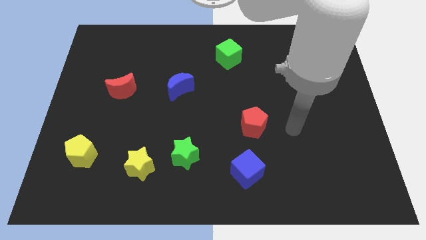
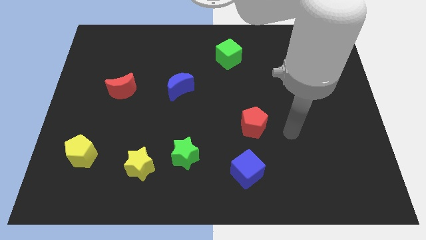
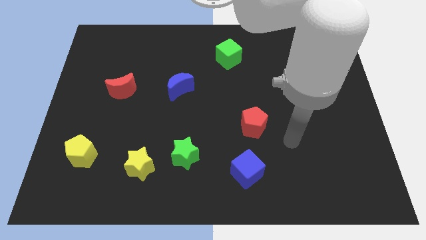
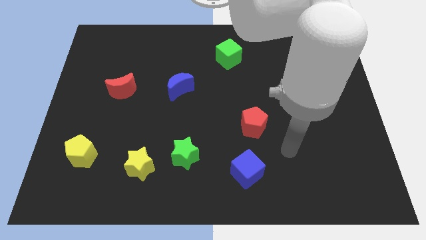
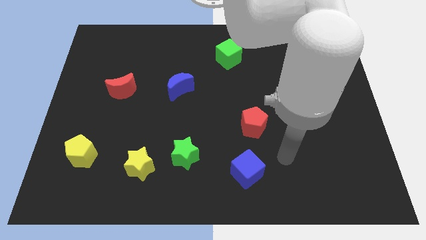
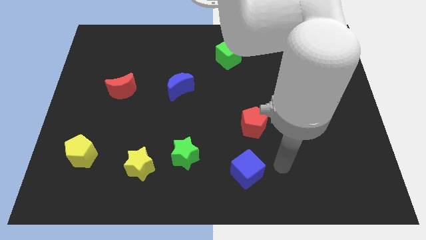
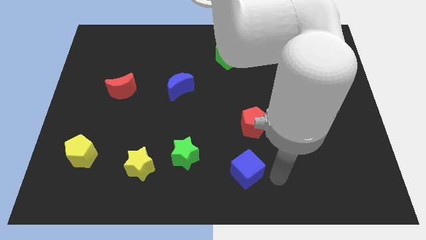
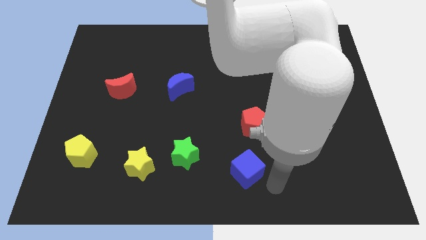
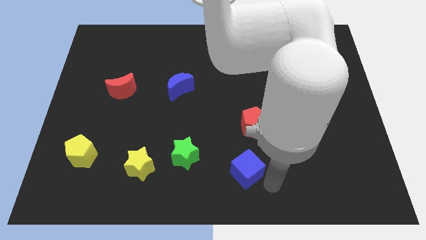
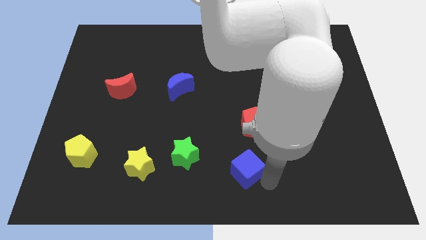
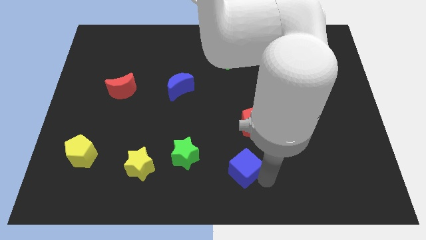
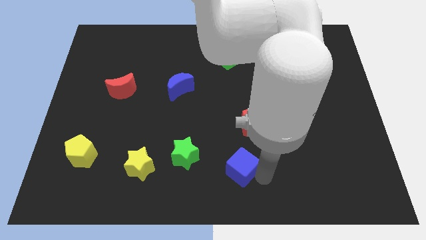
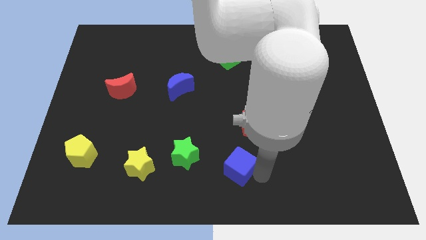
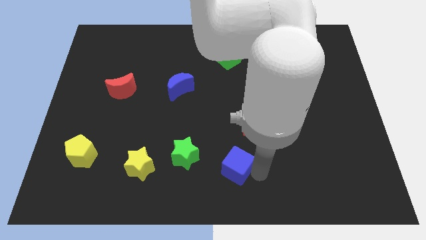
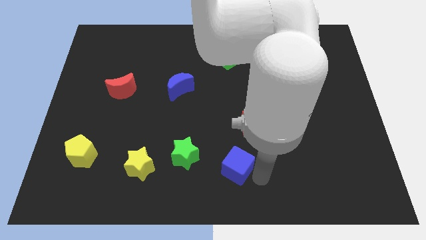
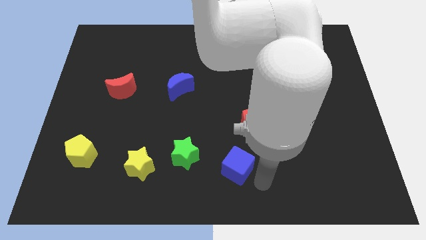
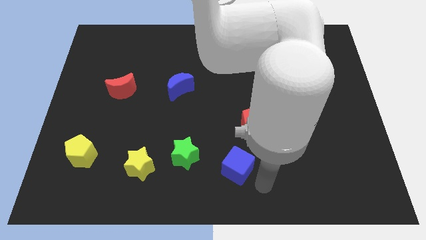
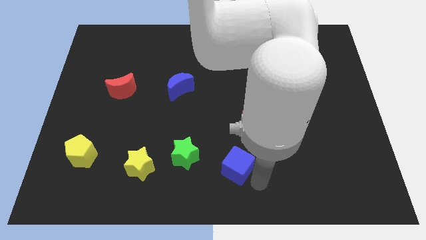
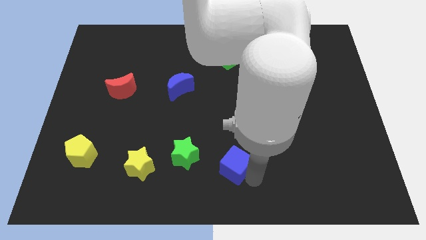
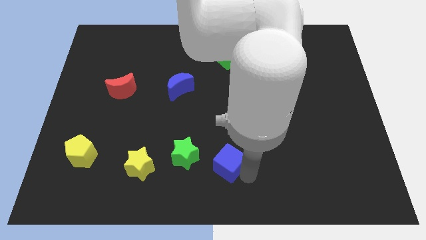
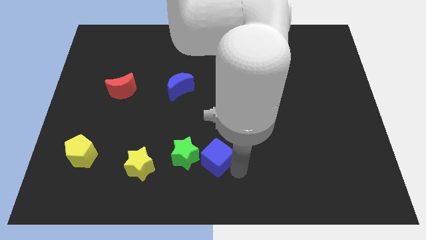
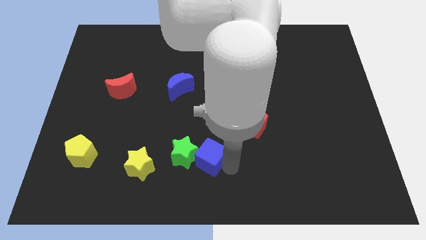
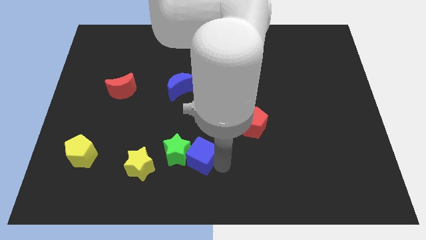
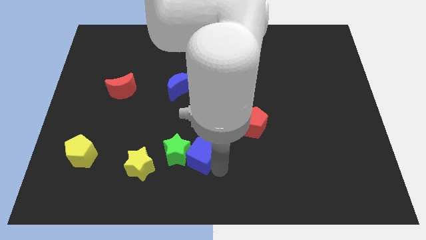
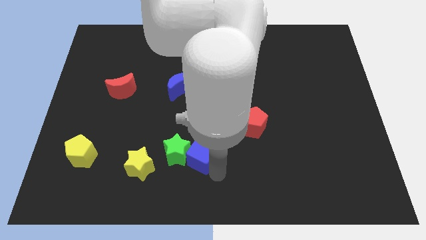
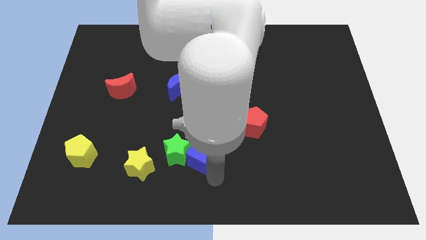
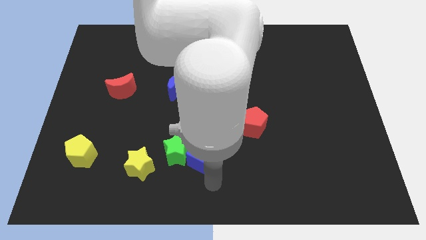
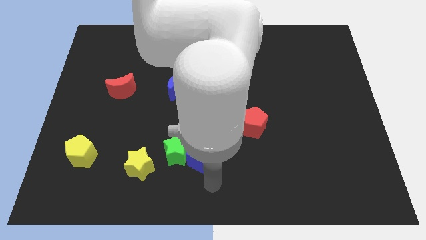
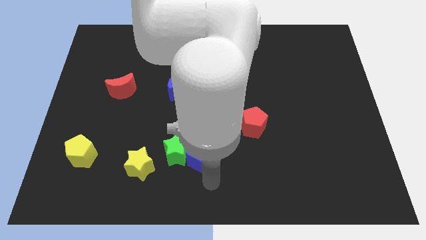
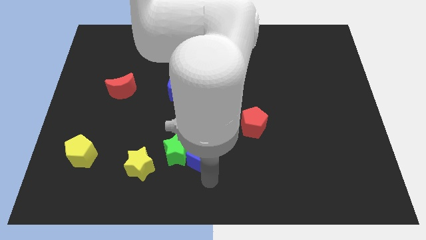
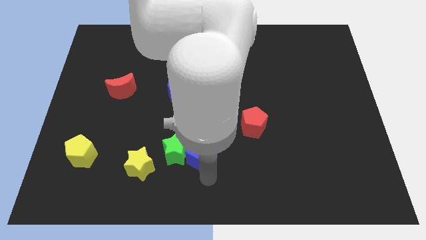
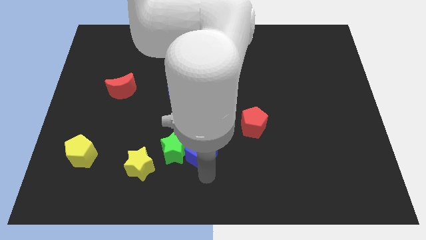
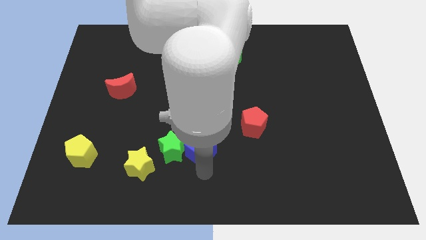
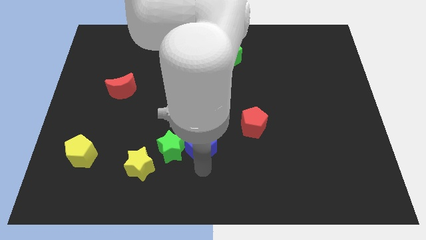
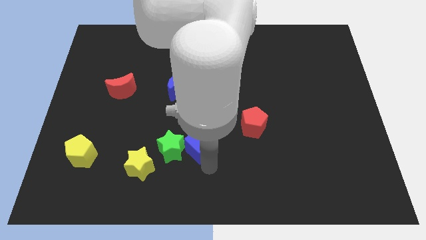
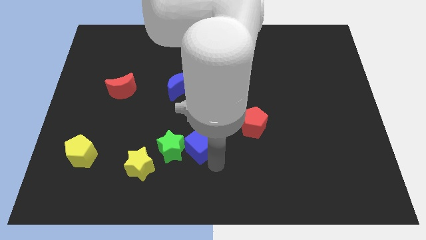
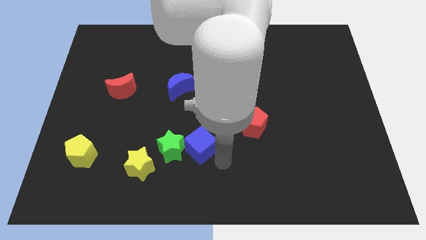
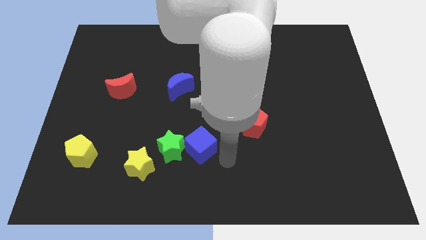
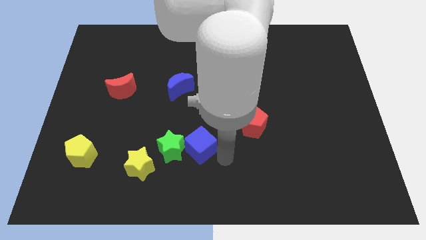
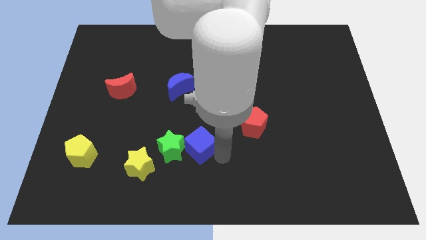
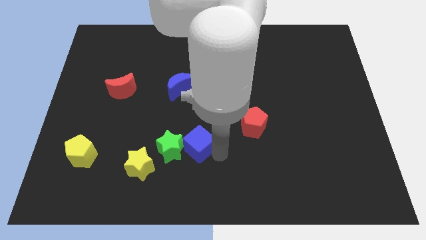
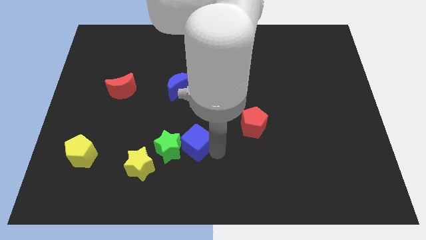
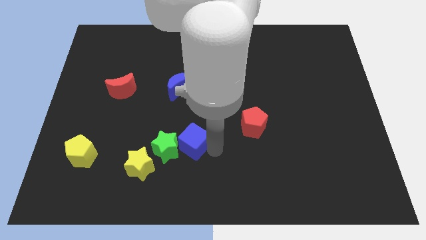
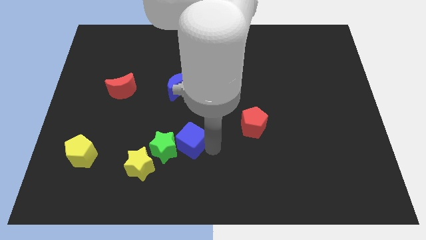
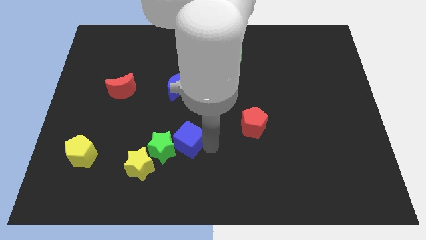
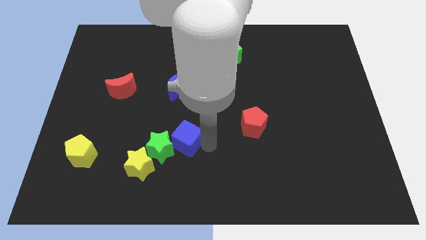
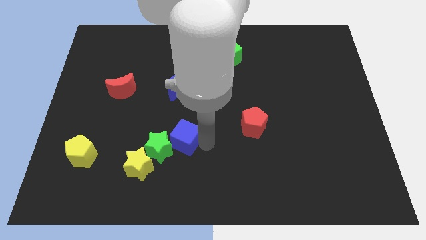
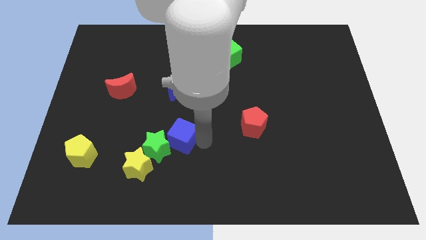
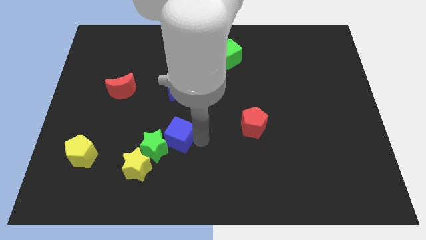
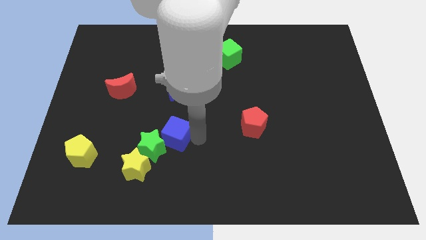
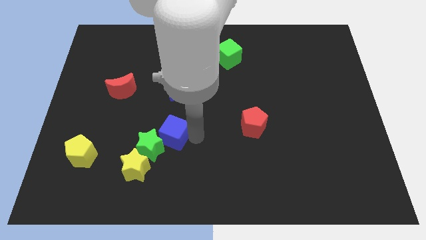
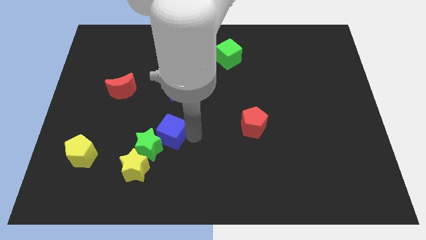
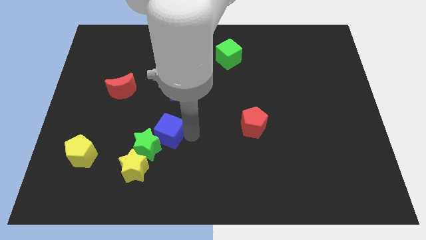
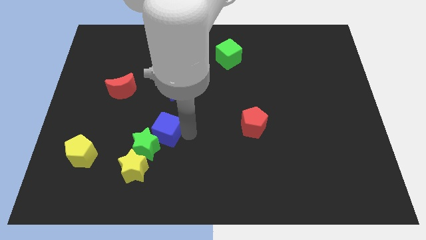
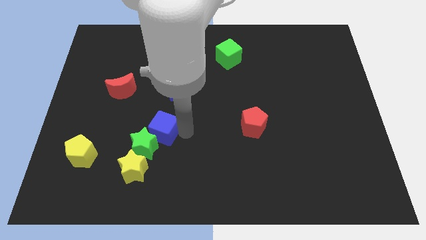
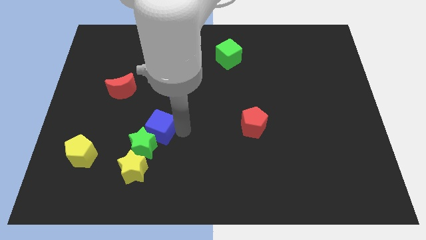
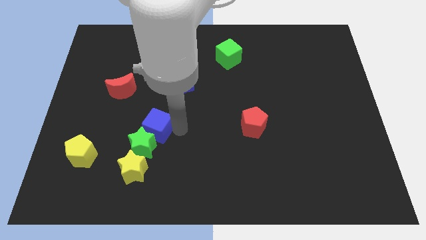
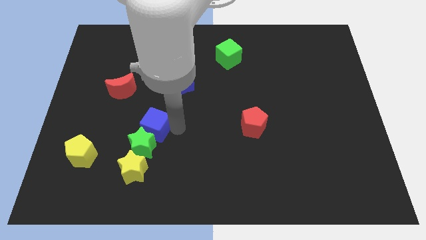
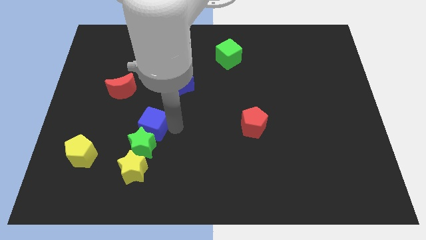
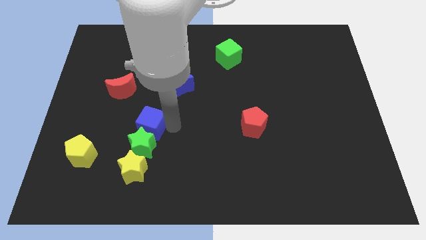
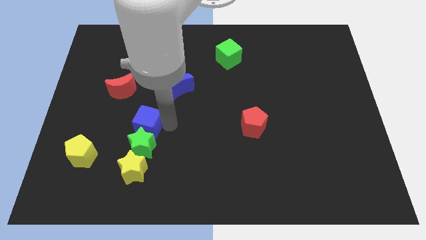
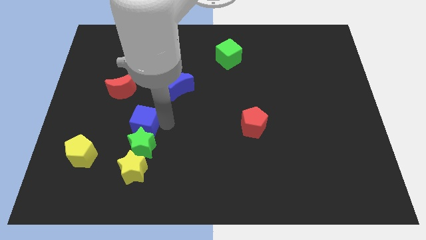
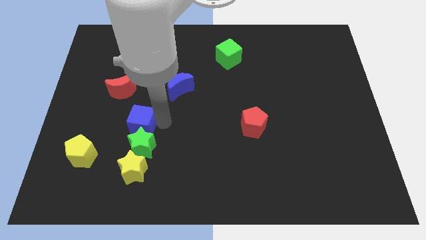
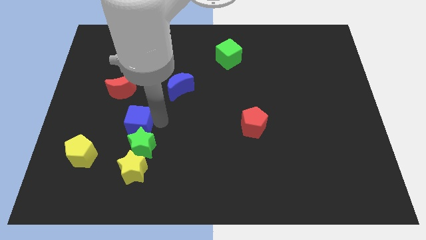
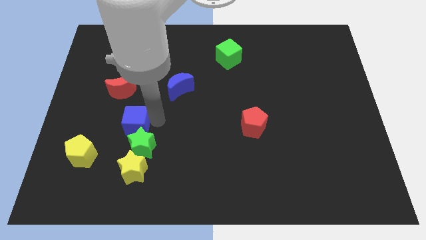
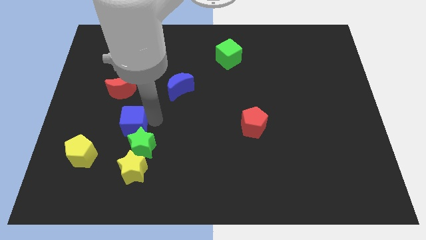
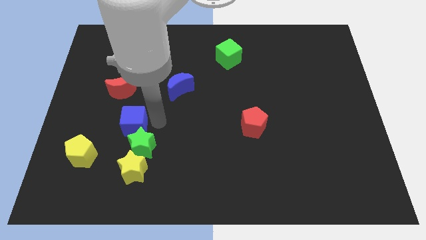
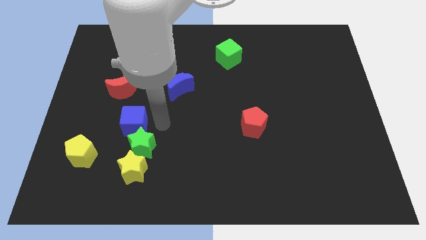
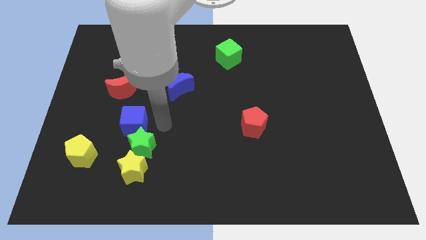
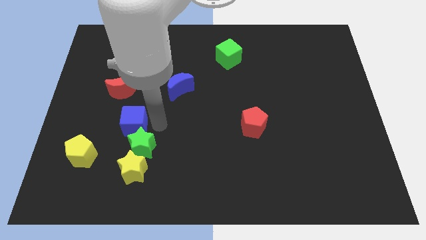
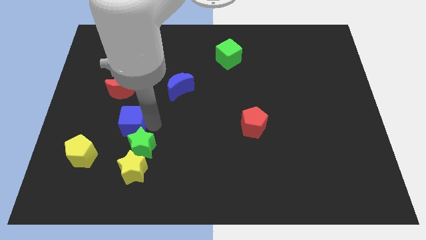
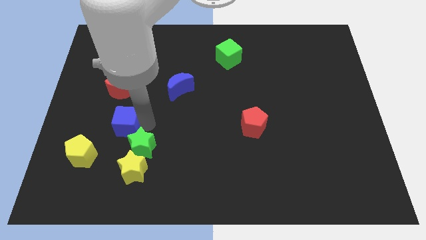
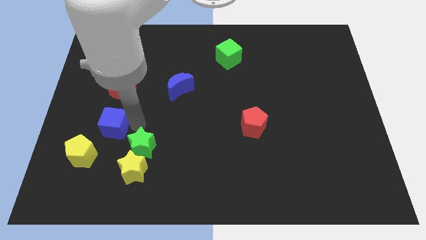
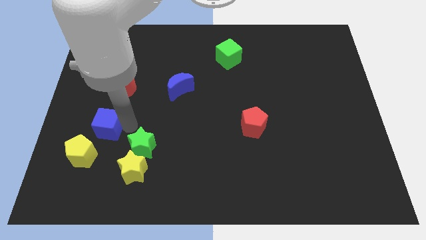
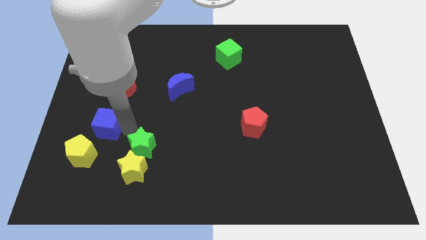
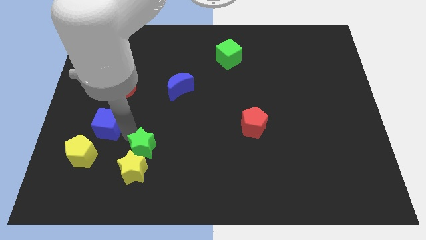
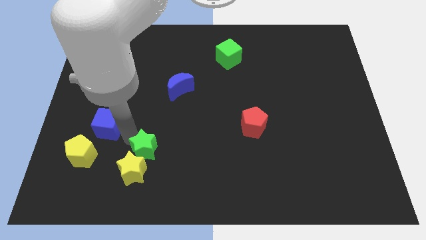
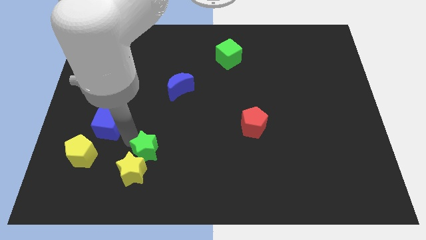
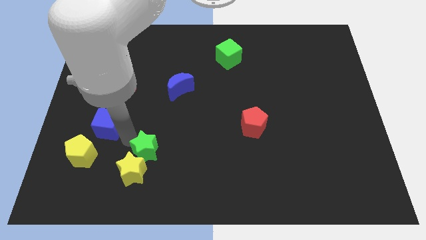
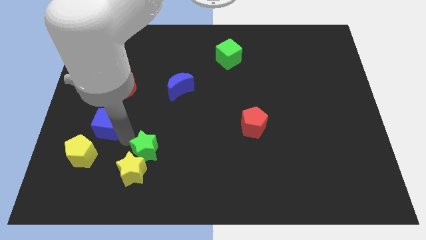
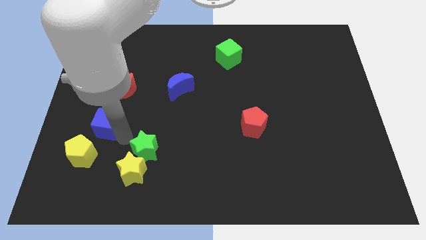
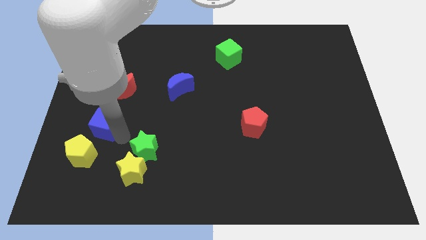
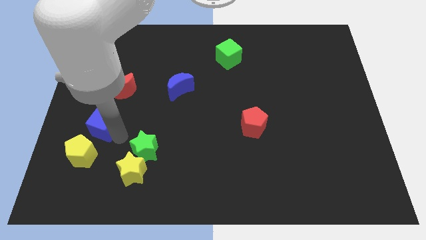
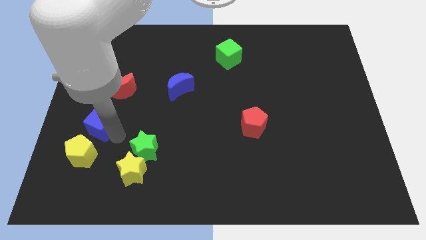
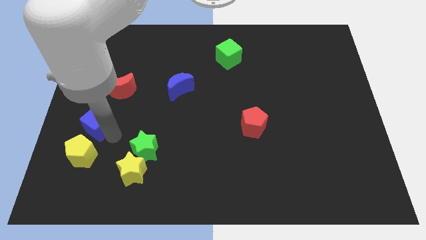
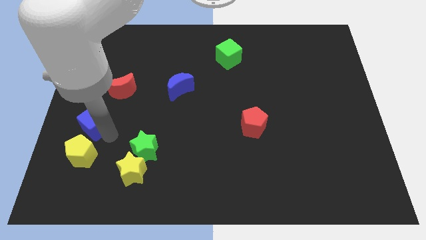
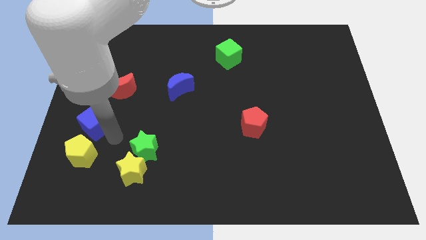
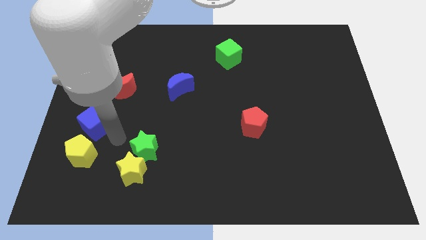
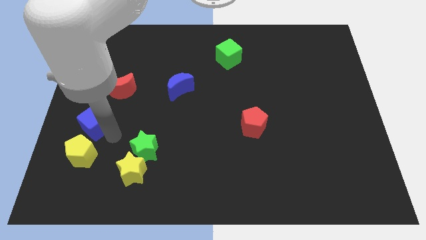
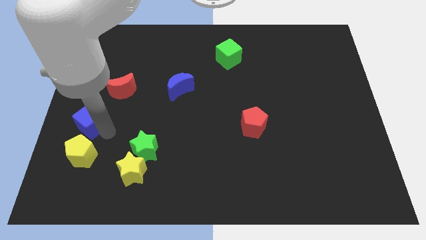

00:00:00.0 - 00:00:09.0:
put the blue cube to the center left
